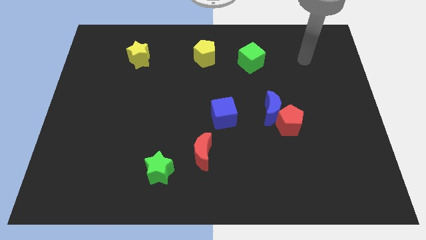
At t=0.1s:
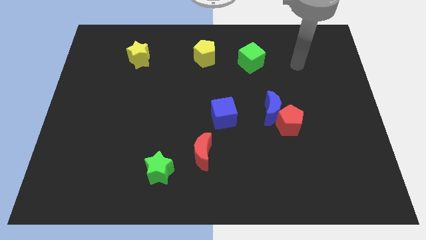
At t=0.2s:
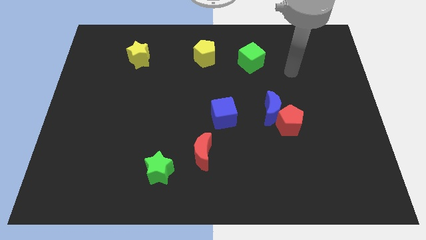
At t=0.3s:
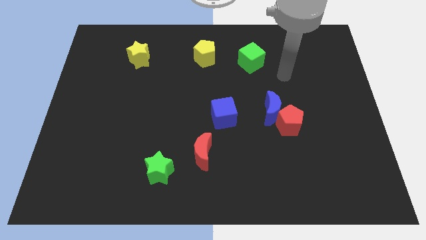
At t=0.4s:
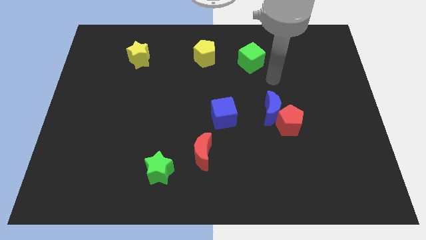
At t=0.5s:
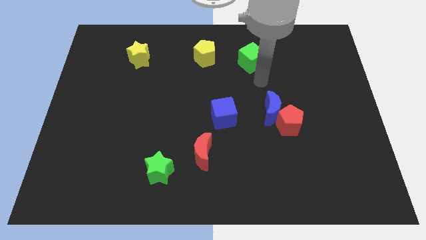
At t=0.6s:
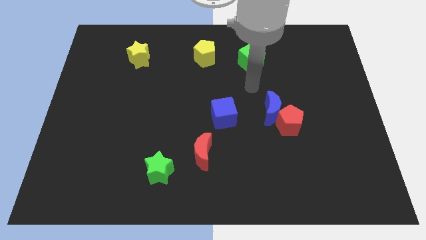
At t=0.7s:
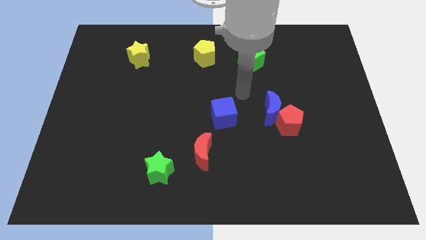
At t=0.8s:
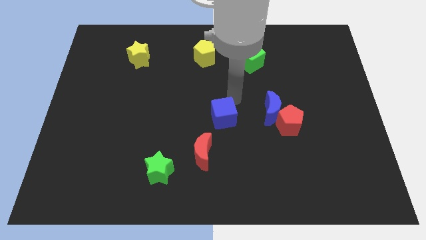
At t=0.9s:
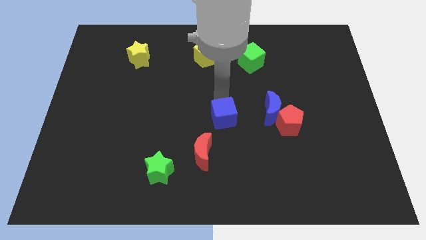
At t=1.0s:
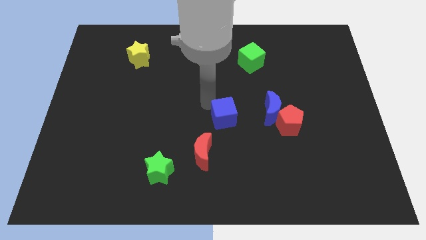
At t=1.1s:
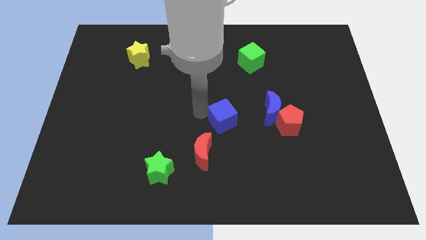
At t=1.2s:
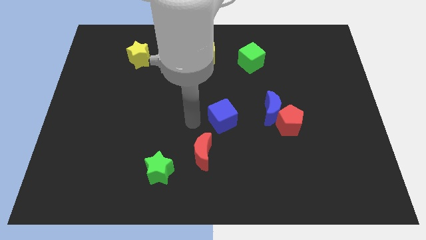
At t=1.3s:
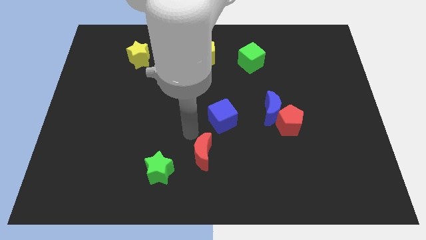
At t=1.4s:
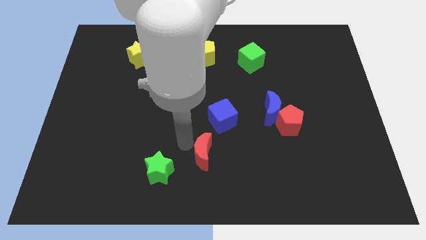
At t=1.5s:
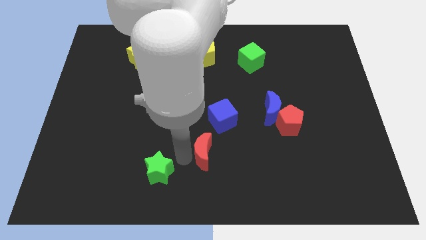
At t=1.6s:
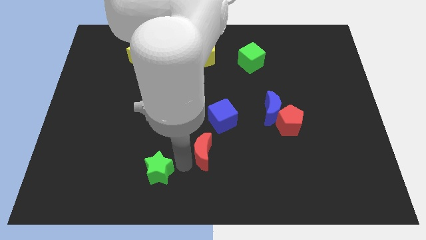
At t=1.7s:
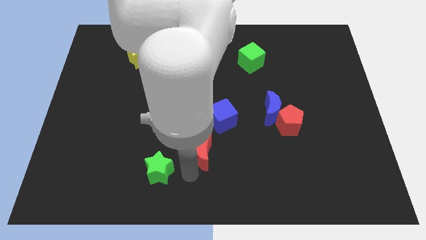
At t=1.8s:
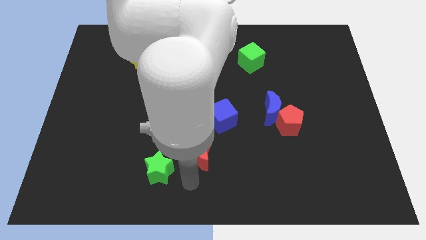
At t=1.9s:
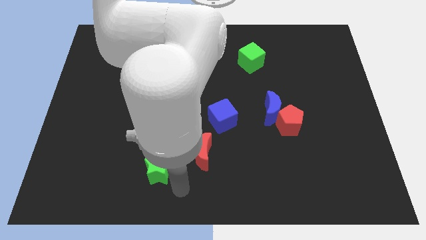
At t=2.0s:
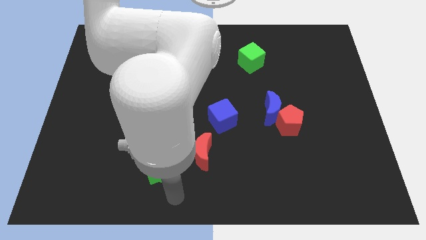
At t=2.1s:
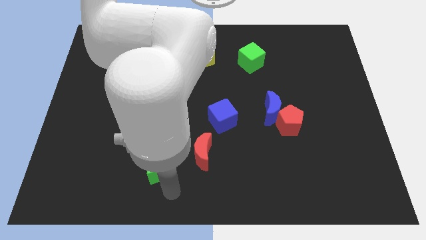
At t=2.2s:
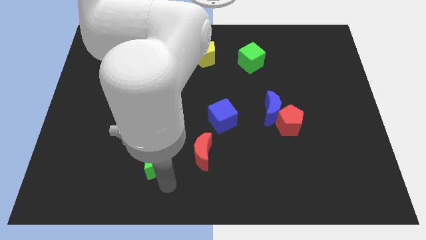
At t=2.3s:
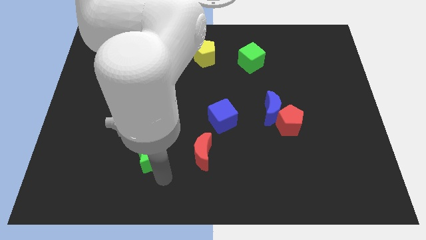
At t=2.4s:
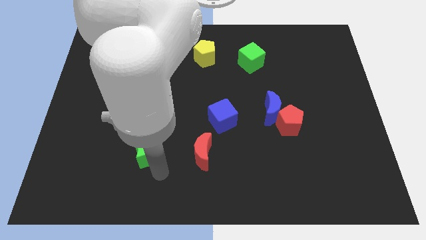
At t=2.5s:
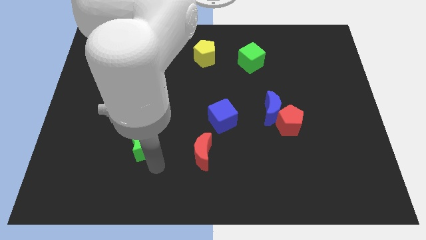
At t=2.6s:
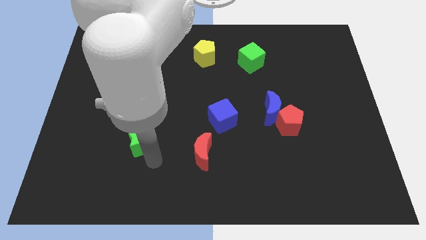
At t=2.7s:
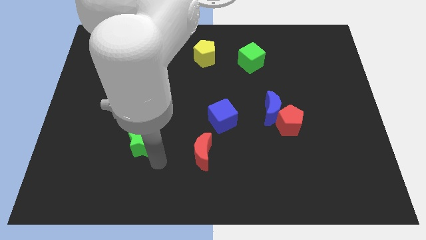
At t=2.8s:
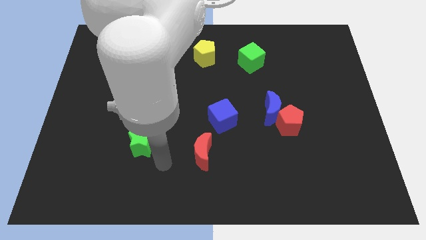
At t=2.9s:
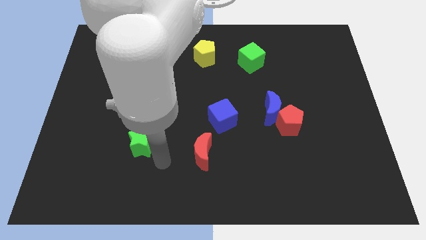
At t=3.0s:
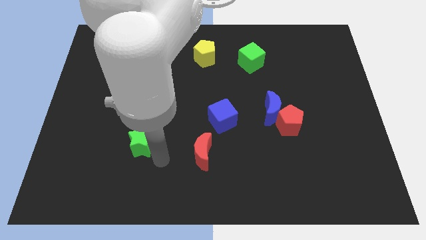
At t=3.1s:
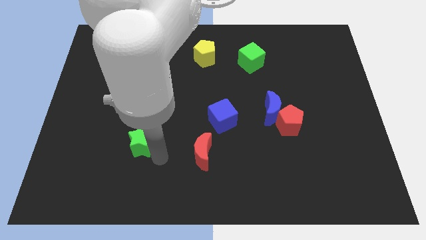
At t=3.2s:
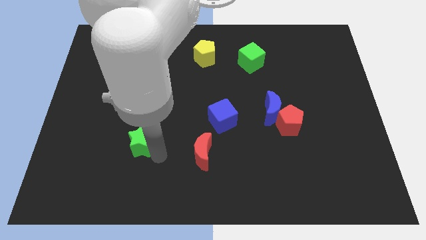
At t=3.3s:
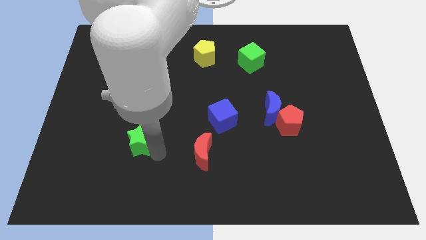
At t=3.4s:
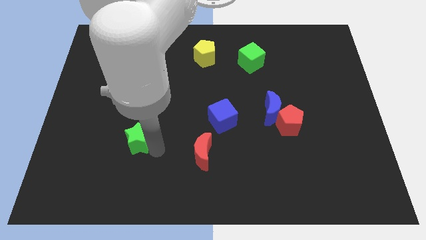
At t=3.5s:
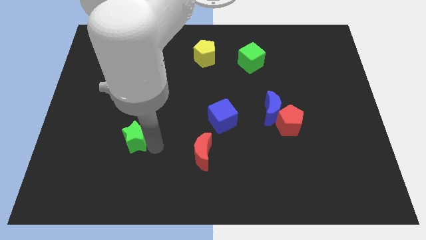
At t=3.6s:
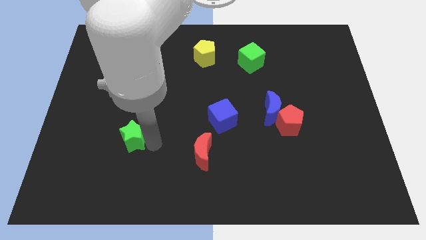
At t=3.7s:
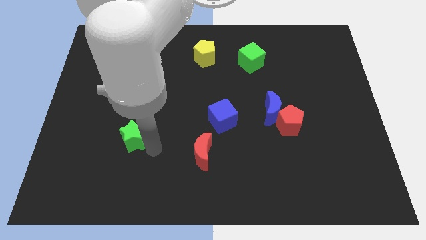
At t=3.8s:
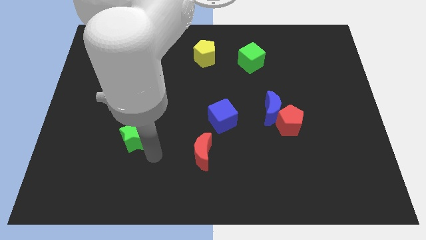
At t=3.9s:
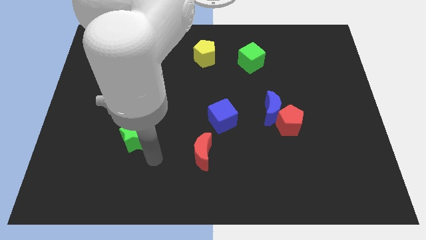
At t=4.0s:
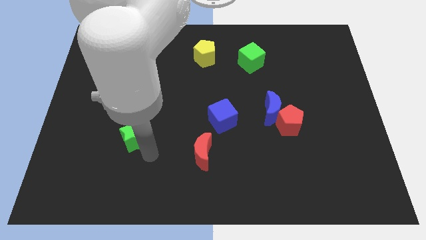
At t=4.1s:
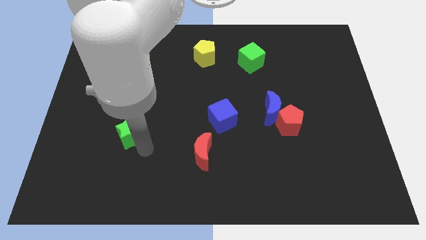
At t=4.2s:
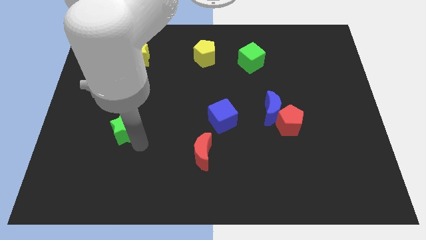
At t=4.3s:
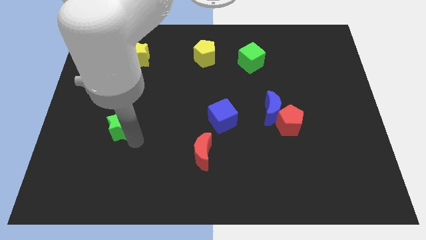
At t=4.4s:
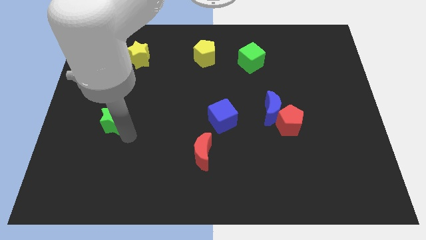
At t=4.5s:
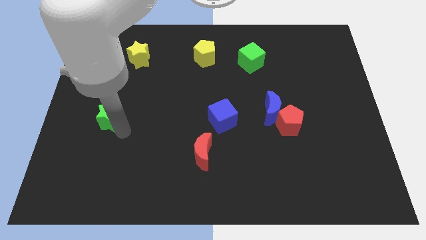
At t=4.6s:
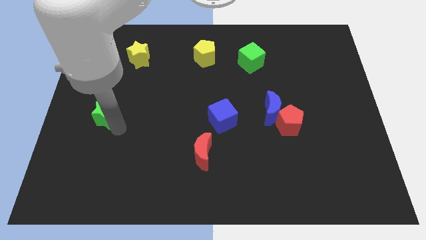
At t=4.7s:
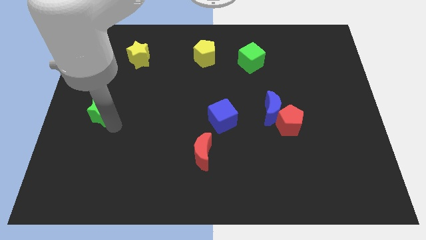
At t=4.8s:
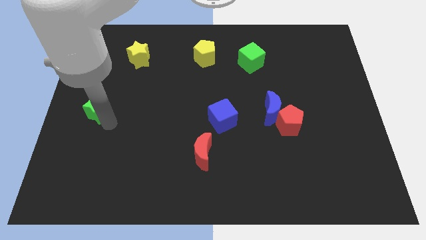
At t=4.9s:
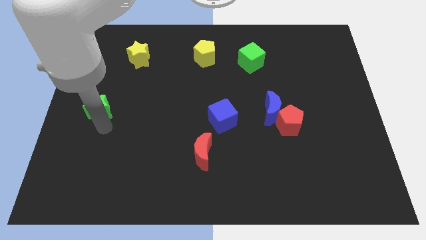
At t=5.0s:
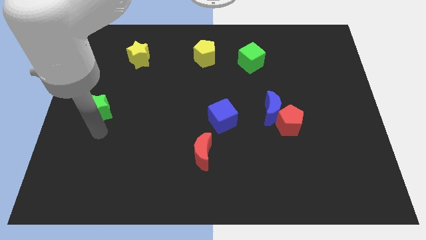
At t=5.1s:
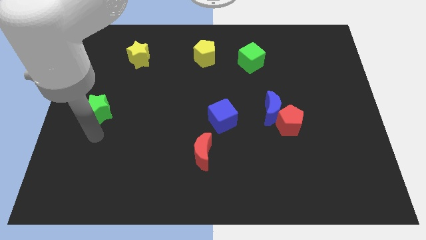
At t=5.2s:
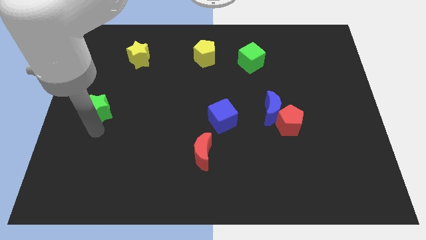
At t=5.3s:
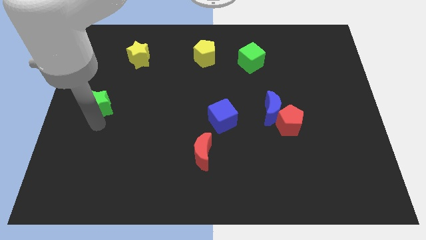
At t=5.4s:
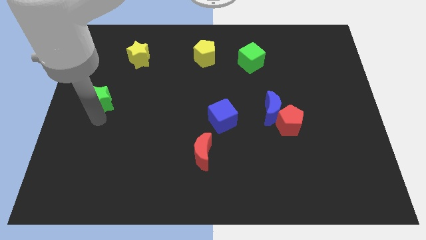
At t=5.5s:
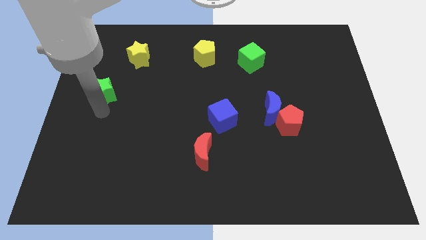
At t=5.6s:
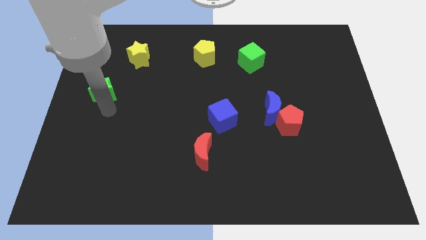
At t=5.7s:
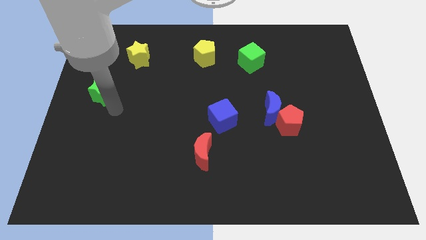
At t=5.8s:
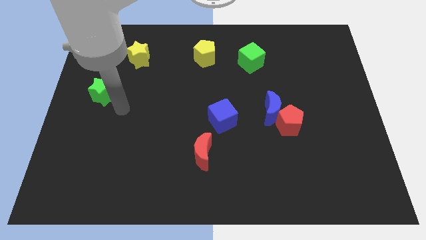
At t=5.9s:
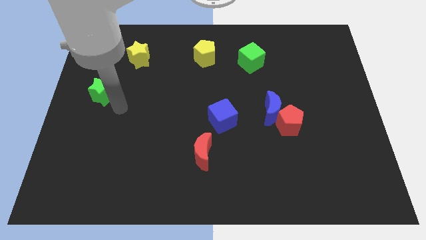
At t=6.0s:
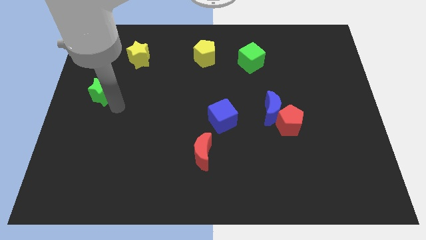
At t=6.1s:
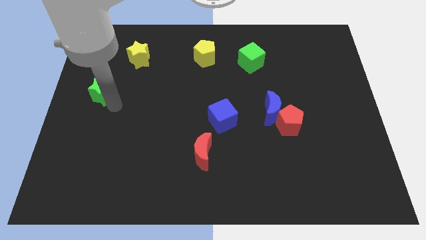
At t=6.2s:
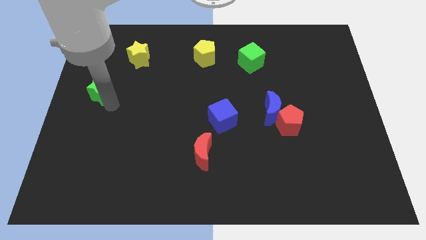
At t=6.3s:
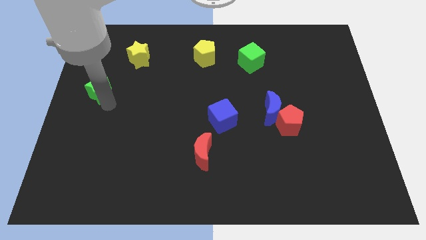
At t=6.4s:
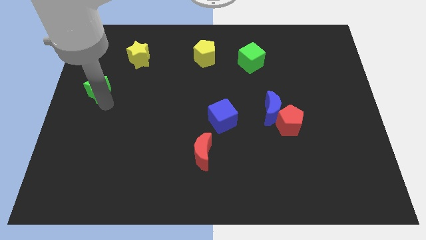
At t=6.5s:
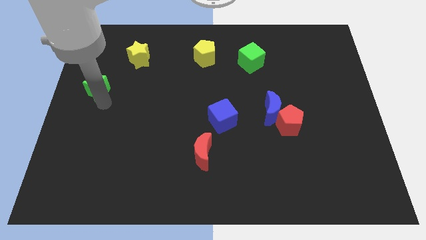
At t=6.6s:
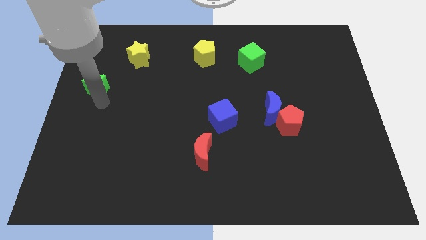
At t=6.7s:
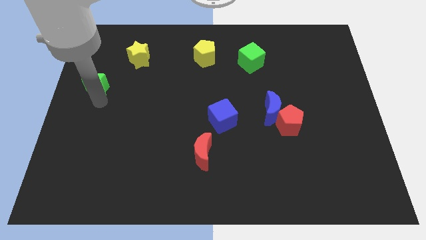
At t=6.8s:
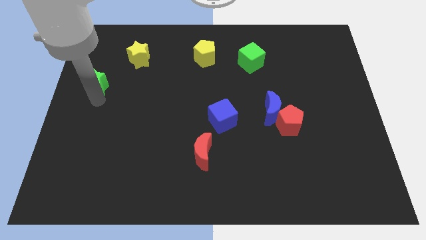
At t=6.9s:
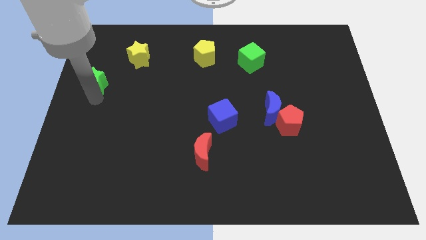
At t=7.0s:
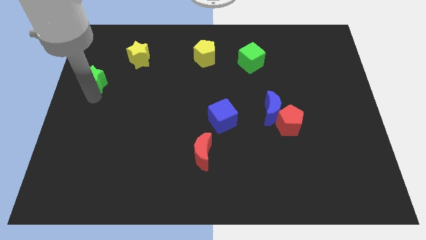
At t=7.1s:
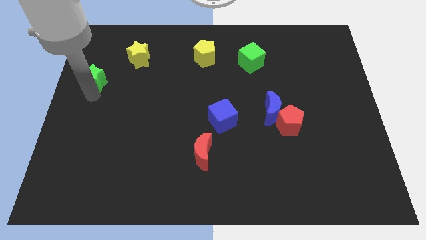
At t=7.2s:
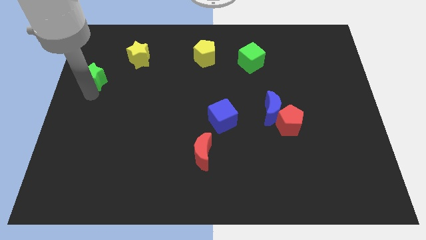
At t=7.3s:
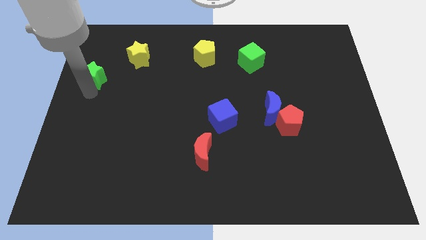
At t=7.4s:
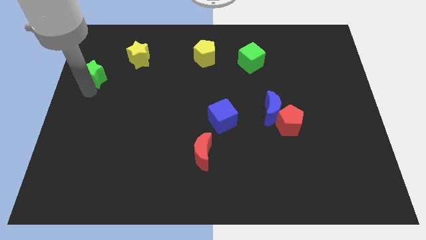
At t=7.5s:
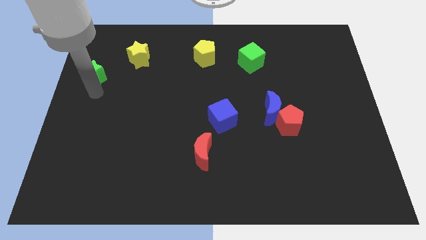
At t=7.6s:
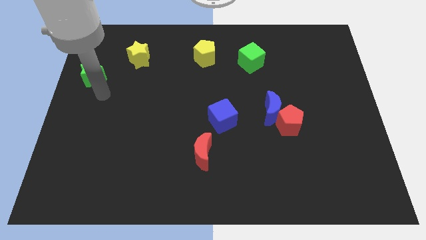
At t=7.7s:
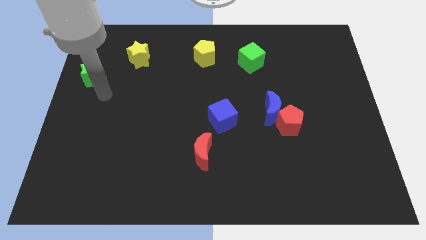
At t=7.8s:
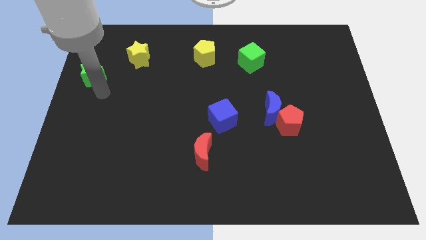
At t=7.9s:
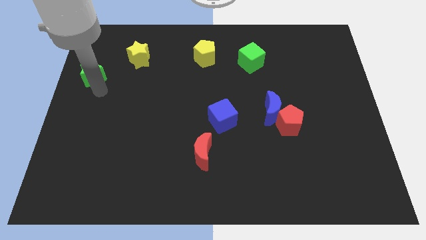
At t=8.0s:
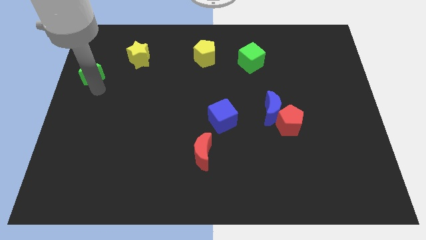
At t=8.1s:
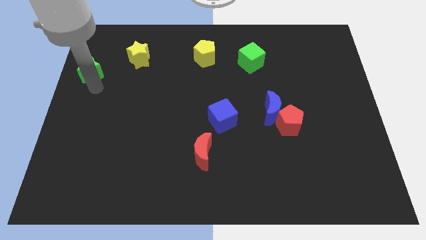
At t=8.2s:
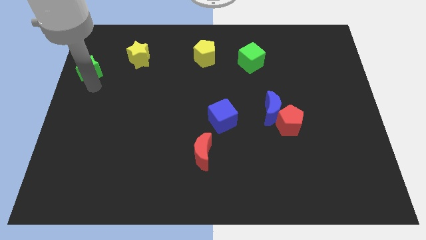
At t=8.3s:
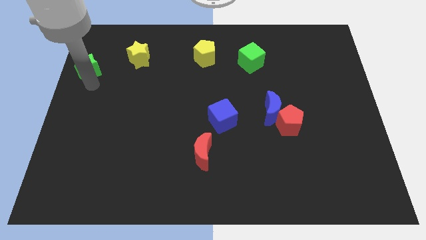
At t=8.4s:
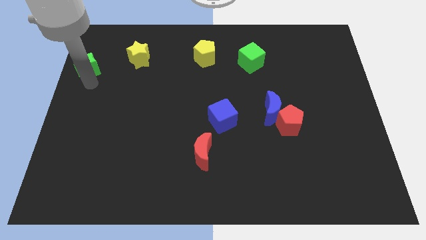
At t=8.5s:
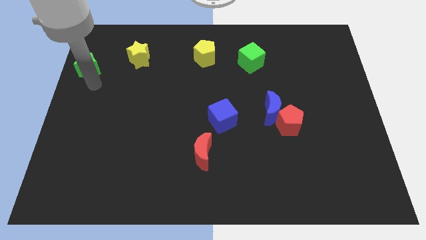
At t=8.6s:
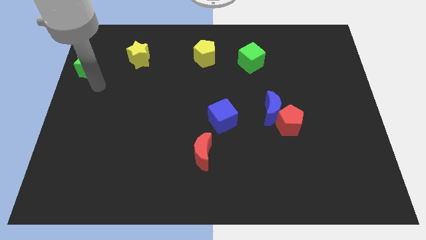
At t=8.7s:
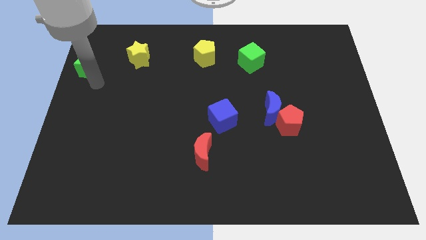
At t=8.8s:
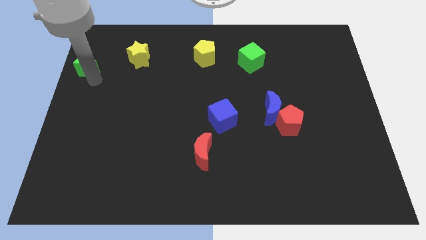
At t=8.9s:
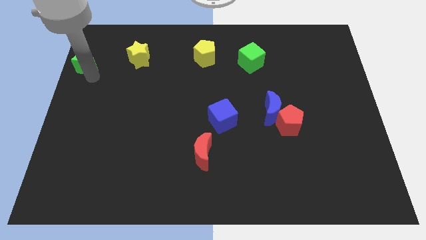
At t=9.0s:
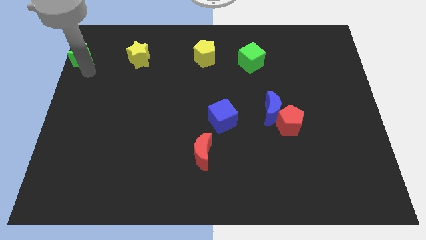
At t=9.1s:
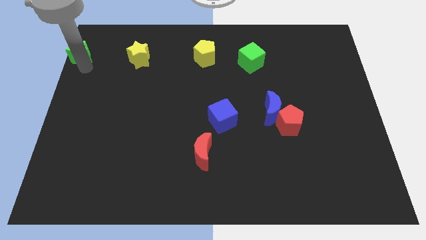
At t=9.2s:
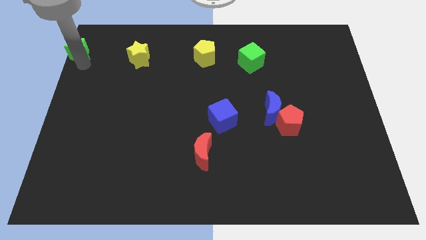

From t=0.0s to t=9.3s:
push the green star to the top left corner
